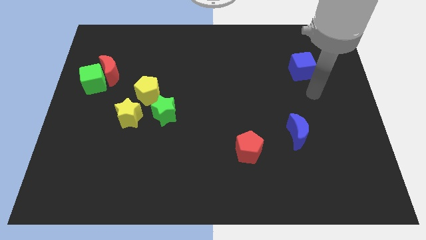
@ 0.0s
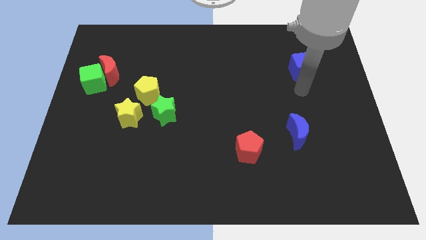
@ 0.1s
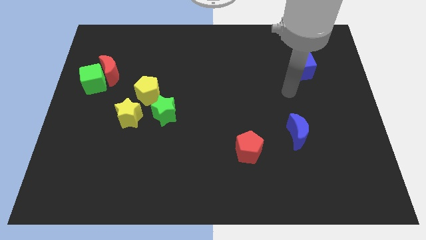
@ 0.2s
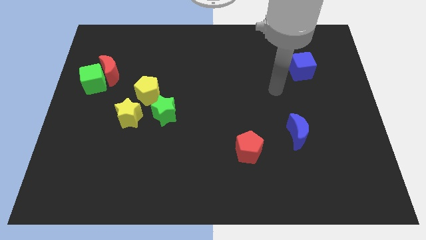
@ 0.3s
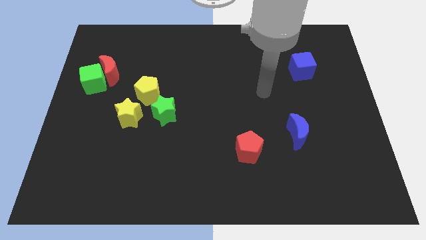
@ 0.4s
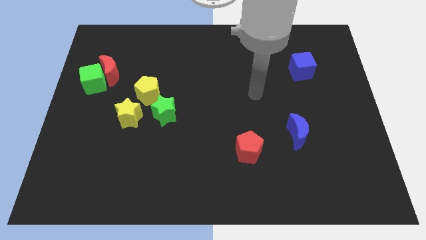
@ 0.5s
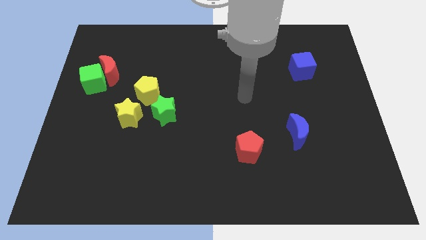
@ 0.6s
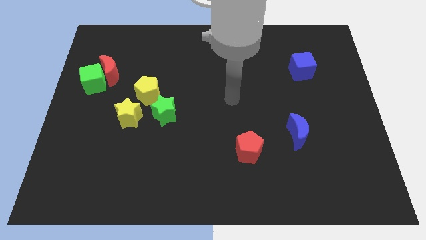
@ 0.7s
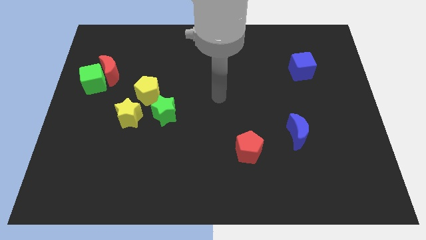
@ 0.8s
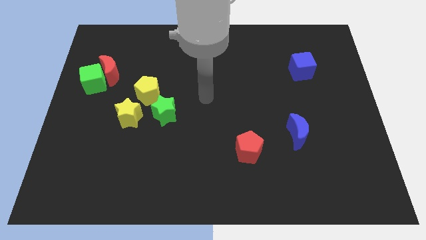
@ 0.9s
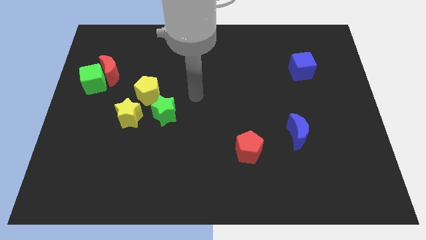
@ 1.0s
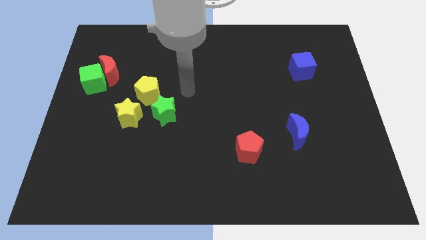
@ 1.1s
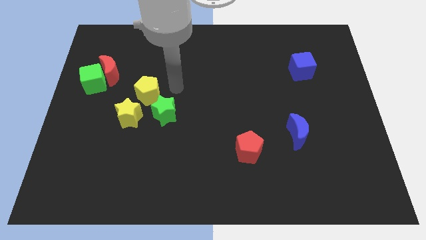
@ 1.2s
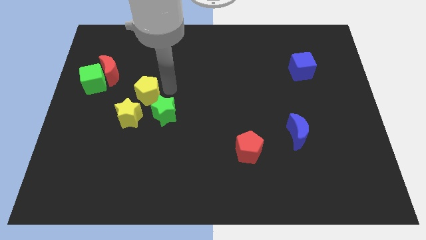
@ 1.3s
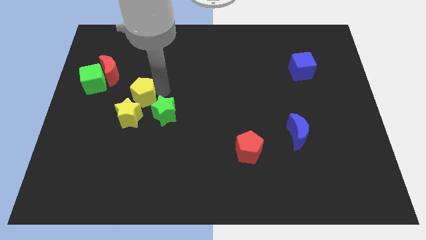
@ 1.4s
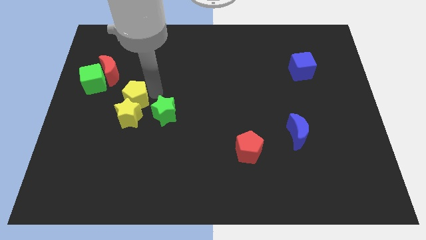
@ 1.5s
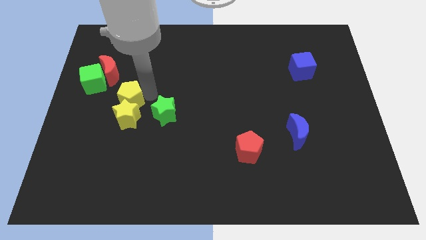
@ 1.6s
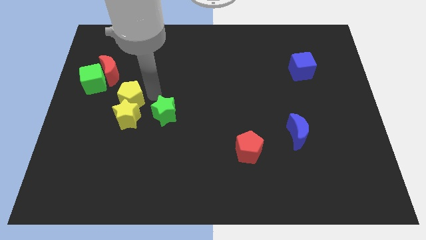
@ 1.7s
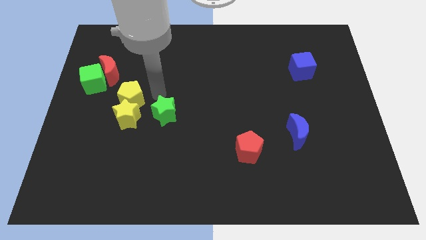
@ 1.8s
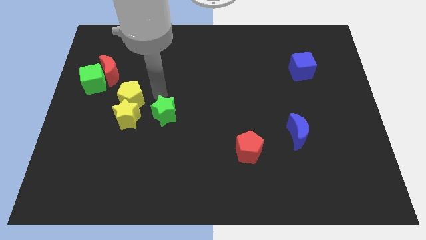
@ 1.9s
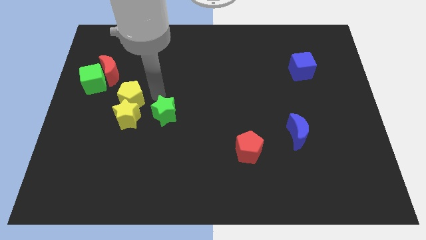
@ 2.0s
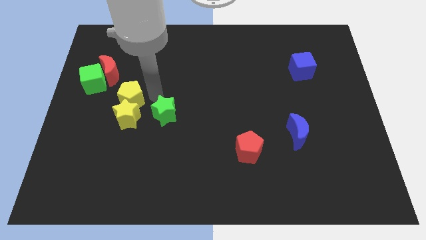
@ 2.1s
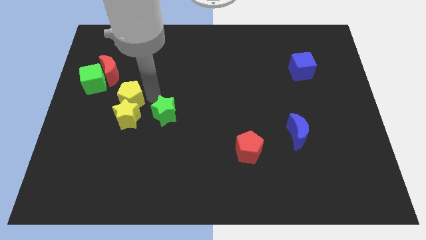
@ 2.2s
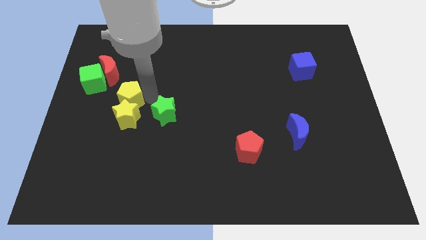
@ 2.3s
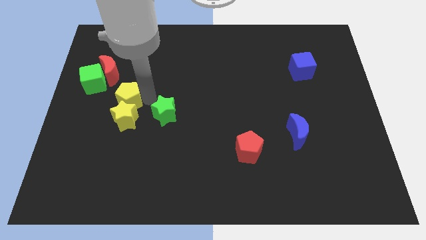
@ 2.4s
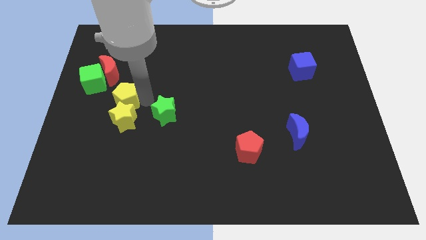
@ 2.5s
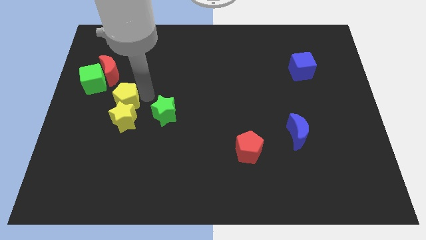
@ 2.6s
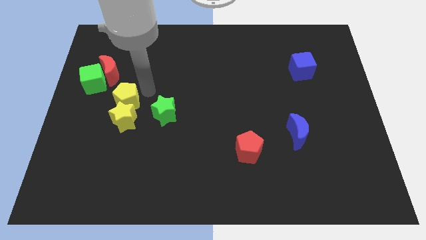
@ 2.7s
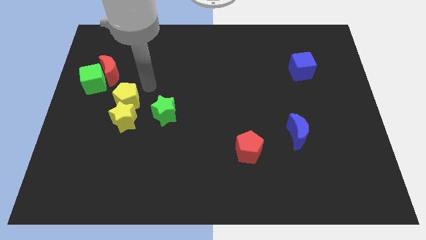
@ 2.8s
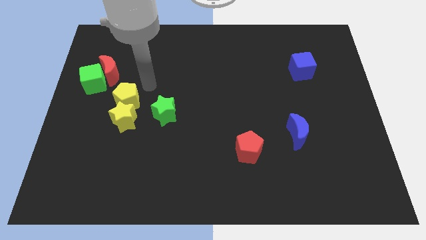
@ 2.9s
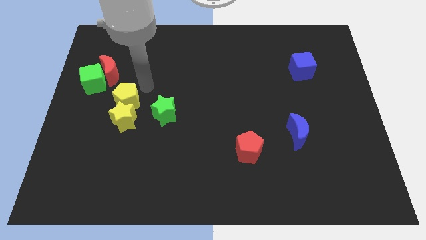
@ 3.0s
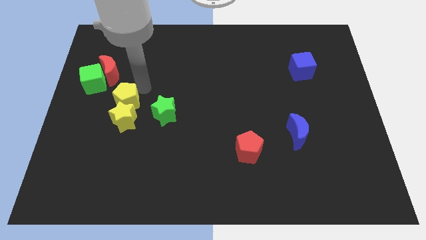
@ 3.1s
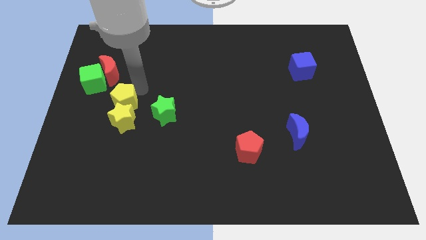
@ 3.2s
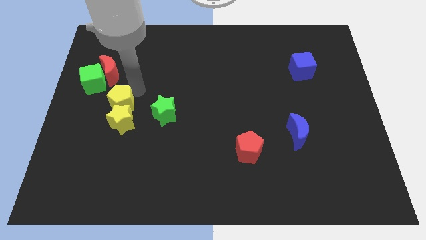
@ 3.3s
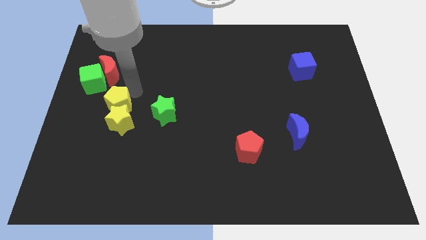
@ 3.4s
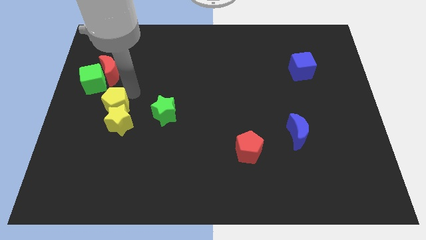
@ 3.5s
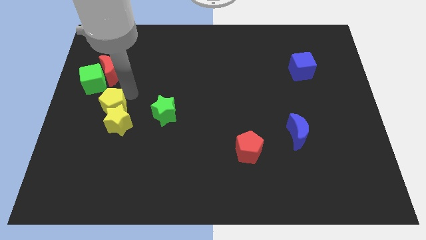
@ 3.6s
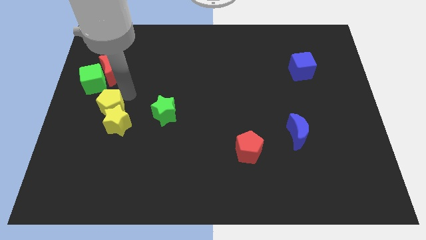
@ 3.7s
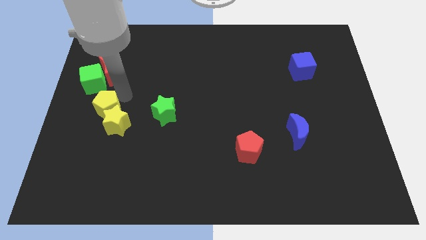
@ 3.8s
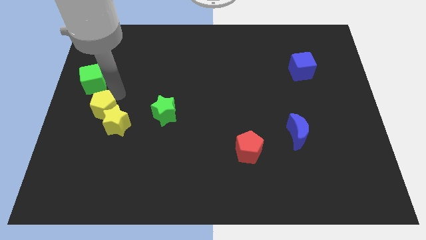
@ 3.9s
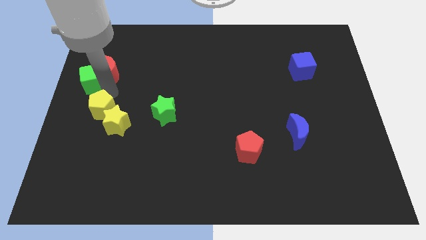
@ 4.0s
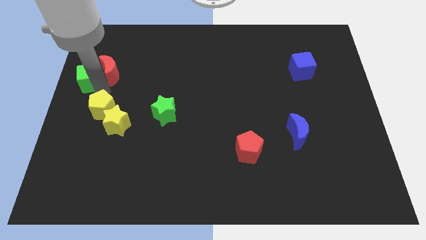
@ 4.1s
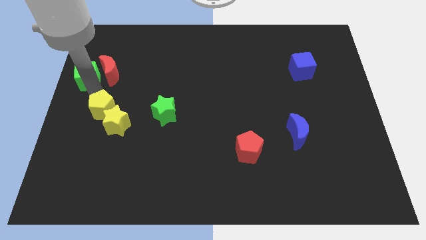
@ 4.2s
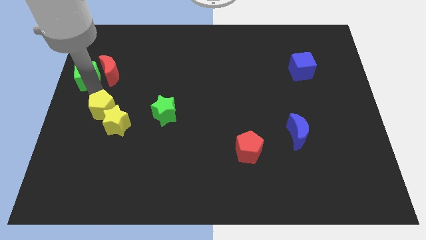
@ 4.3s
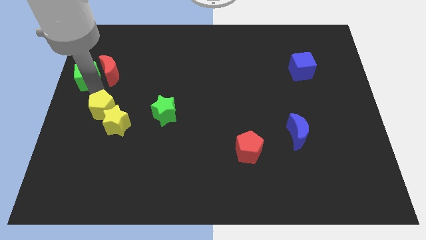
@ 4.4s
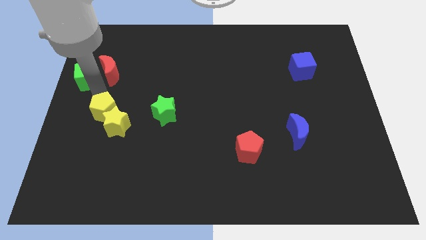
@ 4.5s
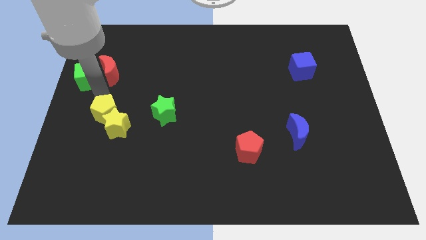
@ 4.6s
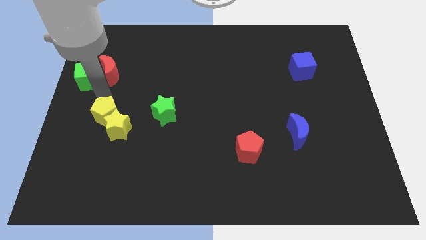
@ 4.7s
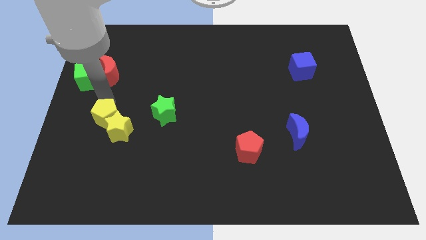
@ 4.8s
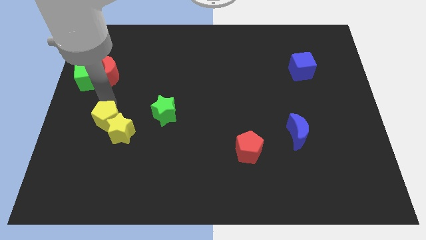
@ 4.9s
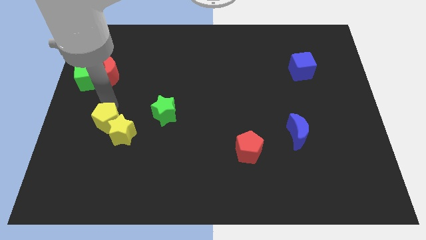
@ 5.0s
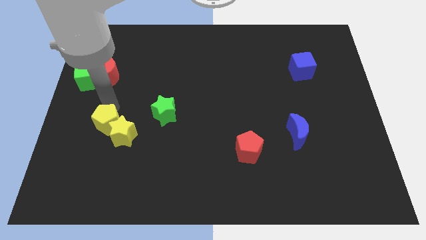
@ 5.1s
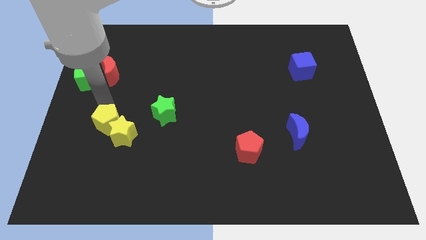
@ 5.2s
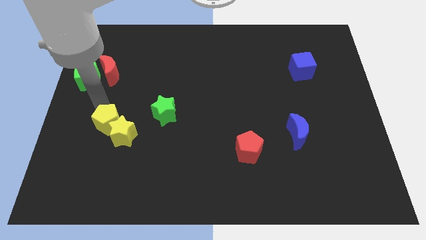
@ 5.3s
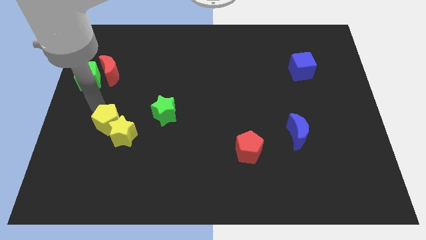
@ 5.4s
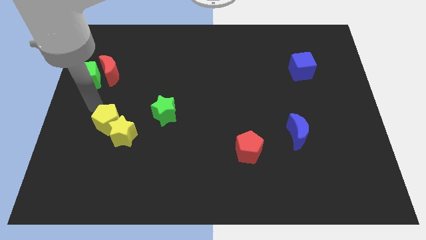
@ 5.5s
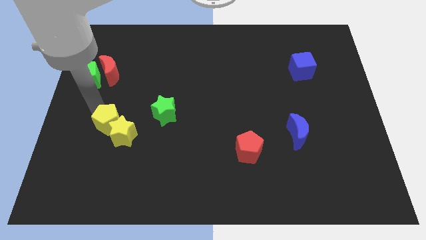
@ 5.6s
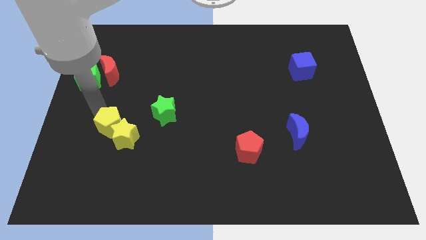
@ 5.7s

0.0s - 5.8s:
slide the yellow pentagon a bit down

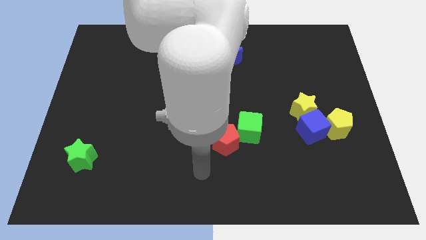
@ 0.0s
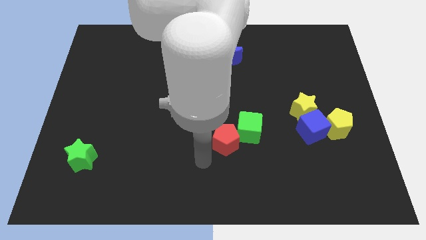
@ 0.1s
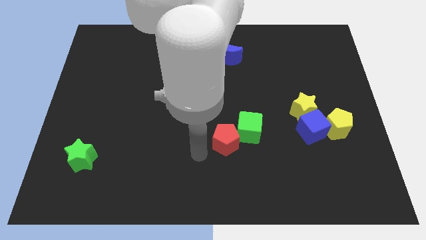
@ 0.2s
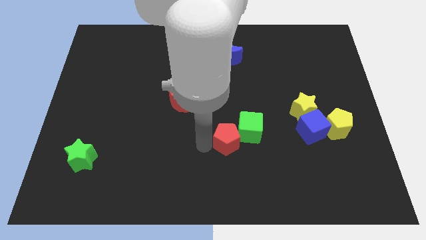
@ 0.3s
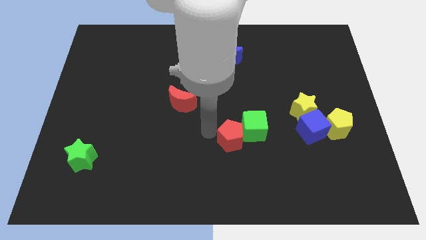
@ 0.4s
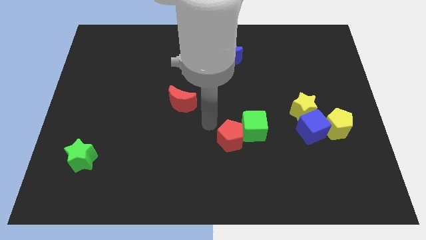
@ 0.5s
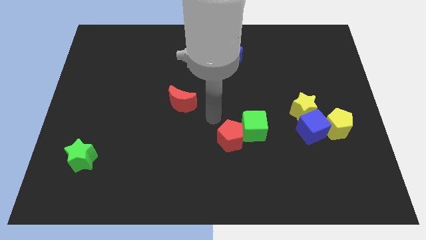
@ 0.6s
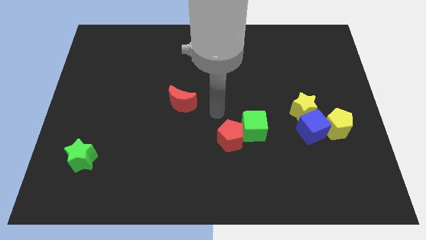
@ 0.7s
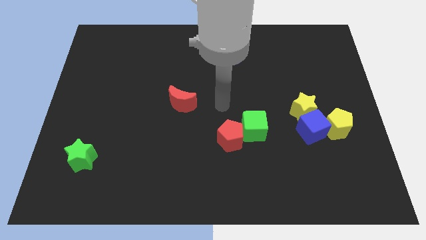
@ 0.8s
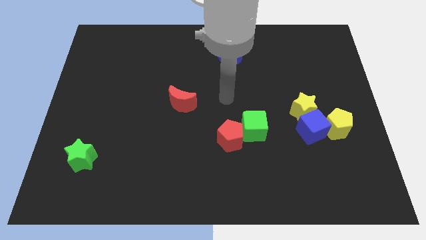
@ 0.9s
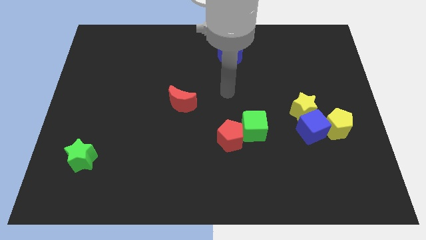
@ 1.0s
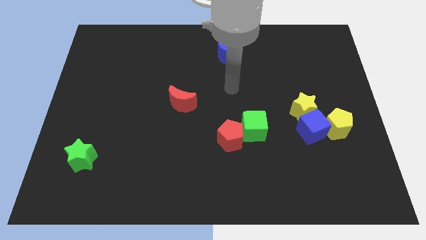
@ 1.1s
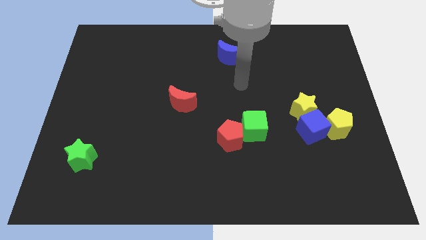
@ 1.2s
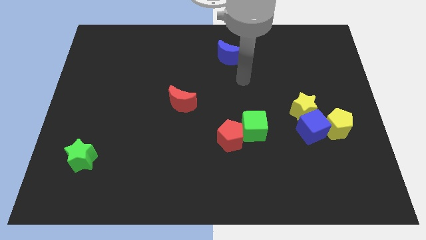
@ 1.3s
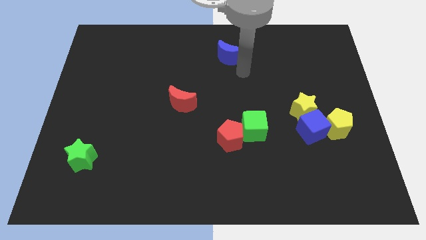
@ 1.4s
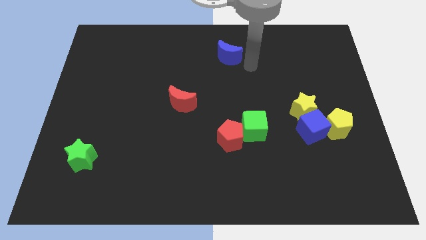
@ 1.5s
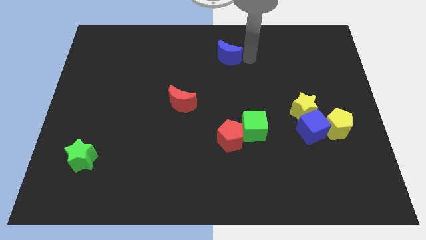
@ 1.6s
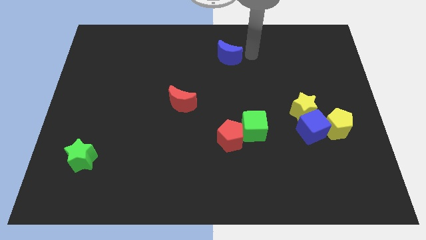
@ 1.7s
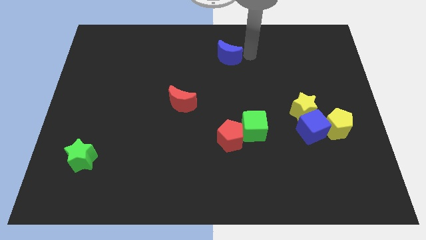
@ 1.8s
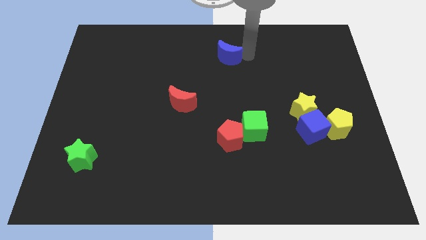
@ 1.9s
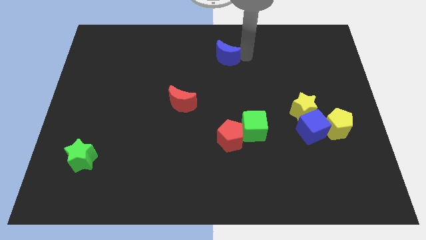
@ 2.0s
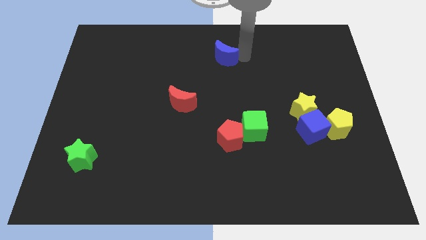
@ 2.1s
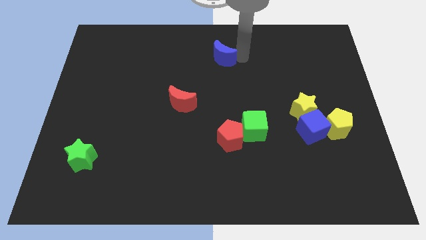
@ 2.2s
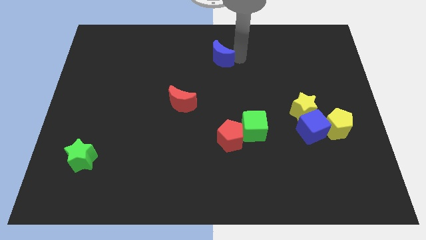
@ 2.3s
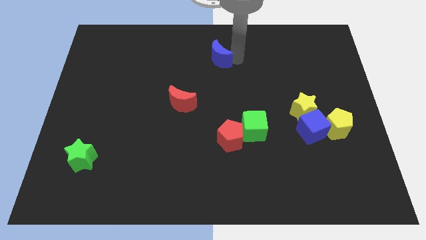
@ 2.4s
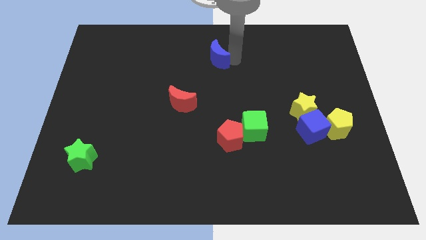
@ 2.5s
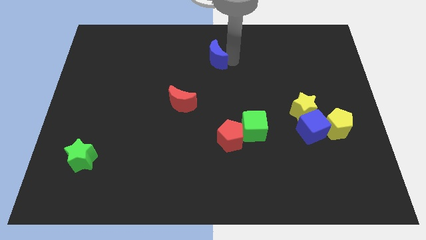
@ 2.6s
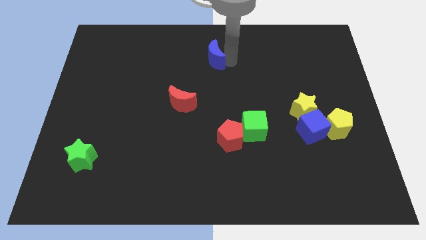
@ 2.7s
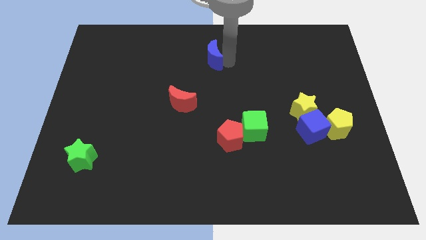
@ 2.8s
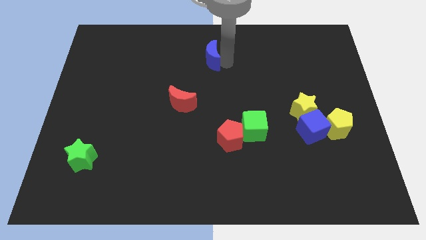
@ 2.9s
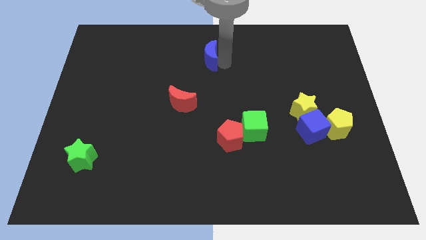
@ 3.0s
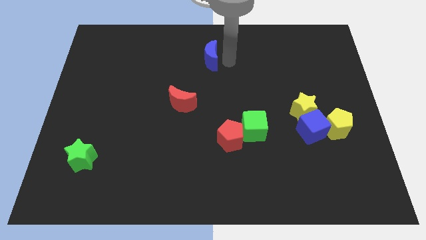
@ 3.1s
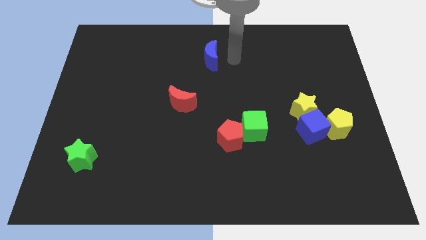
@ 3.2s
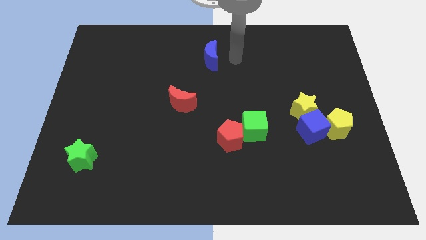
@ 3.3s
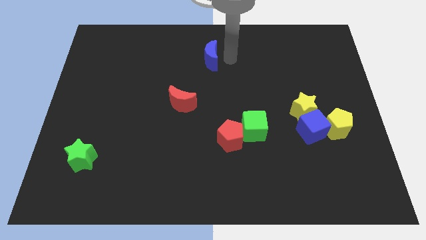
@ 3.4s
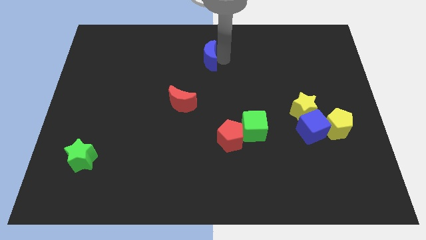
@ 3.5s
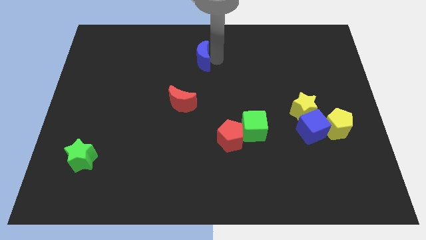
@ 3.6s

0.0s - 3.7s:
slightly push the blue moon left
